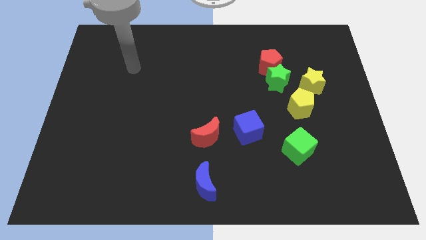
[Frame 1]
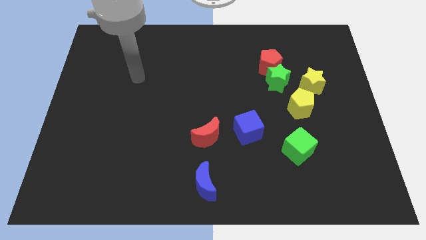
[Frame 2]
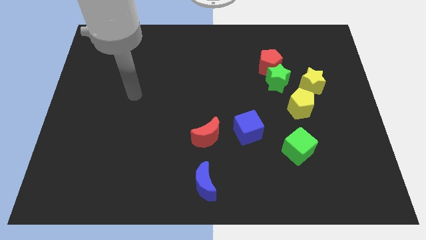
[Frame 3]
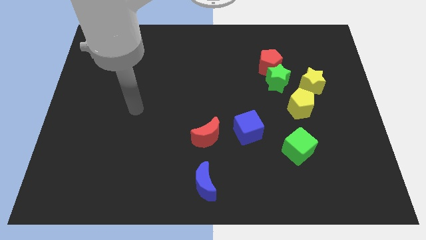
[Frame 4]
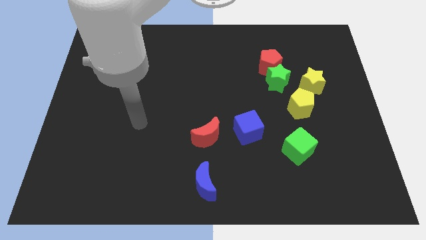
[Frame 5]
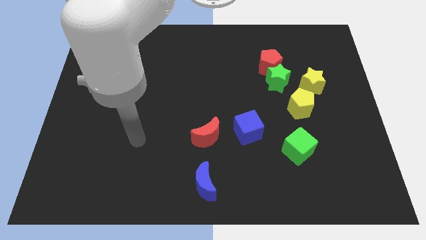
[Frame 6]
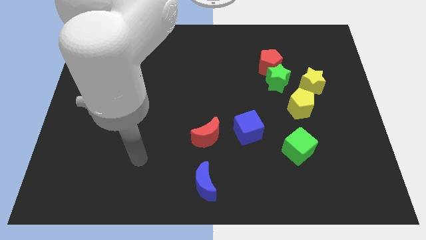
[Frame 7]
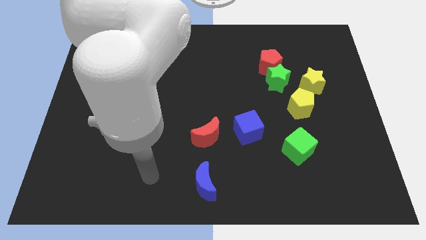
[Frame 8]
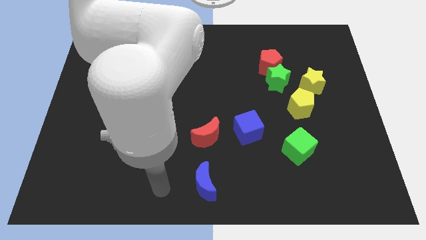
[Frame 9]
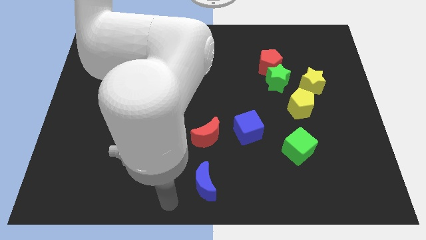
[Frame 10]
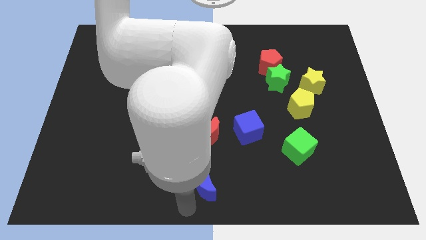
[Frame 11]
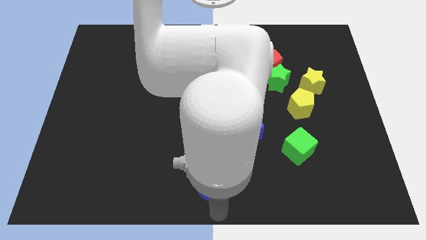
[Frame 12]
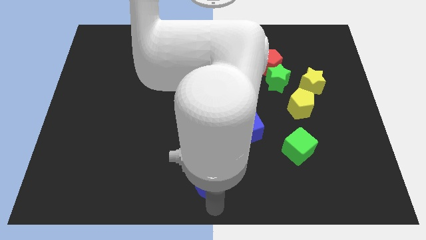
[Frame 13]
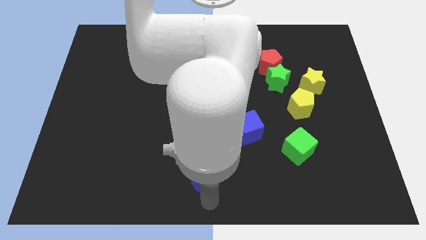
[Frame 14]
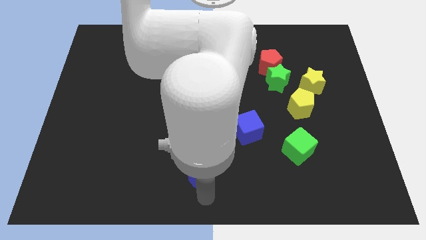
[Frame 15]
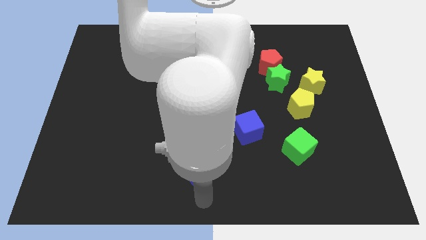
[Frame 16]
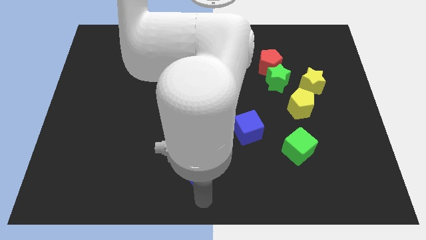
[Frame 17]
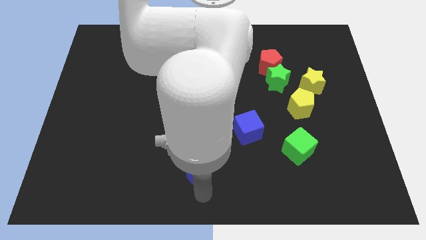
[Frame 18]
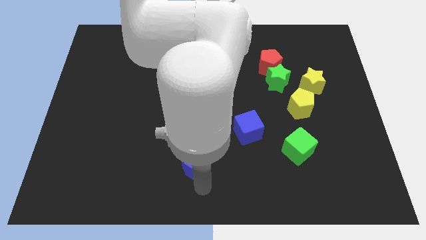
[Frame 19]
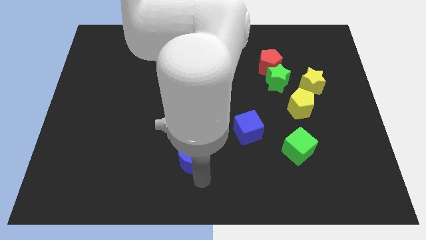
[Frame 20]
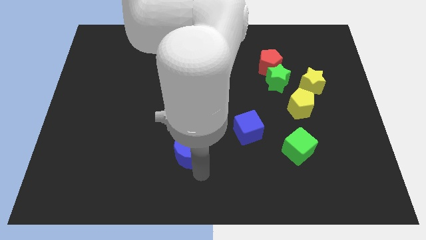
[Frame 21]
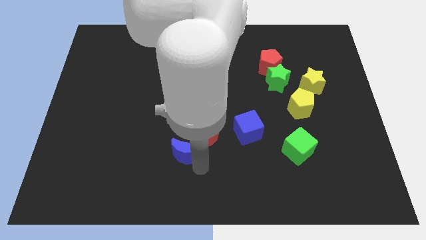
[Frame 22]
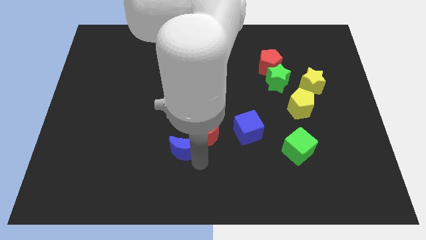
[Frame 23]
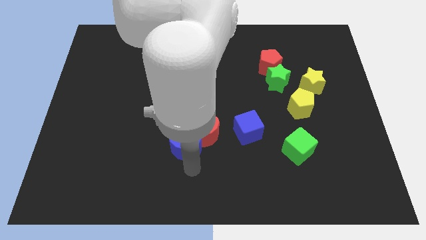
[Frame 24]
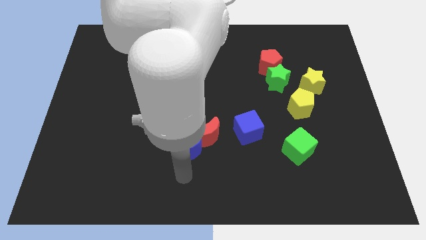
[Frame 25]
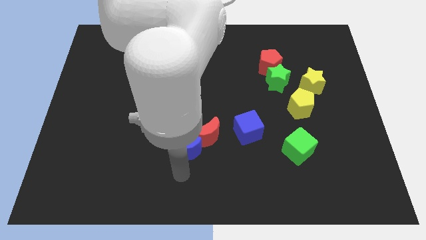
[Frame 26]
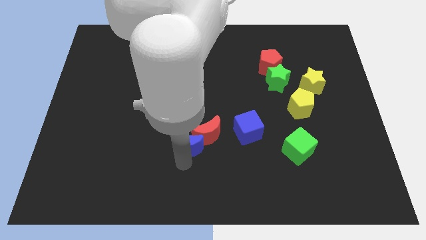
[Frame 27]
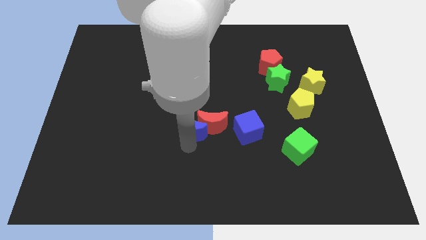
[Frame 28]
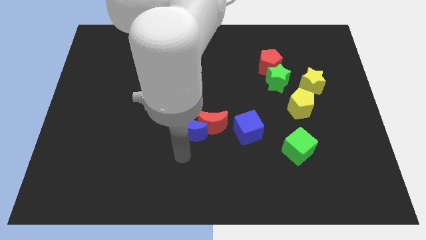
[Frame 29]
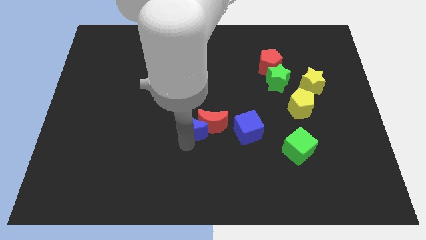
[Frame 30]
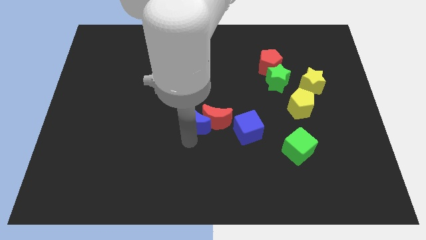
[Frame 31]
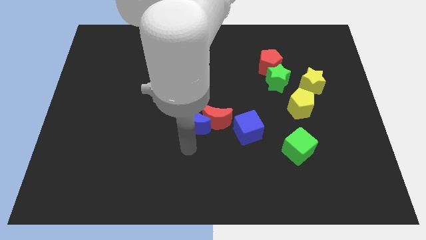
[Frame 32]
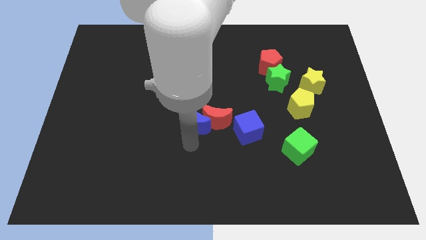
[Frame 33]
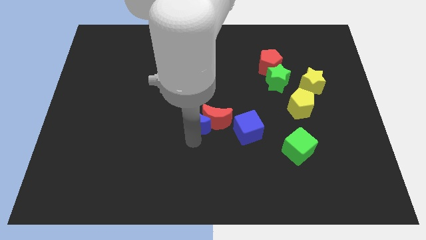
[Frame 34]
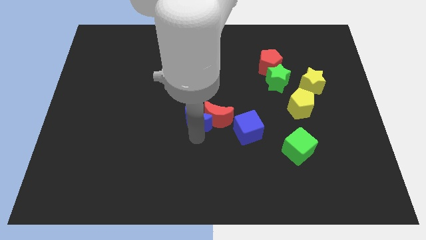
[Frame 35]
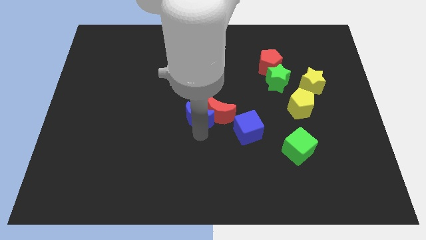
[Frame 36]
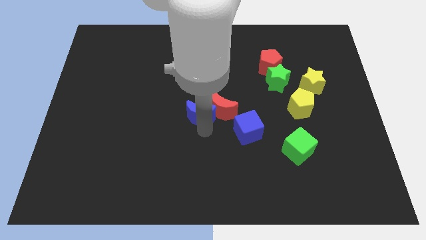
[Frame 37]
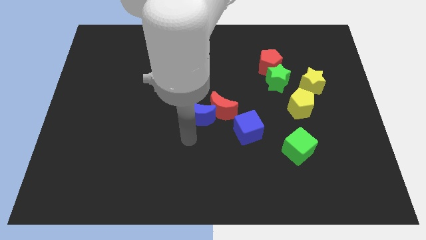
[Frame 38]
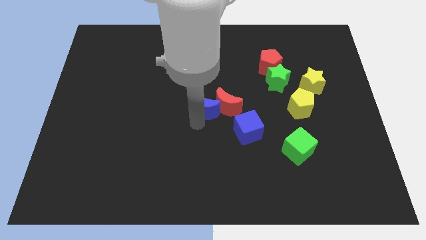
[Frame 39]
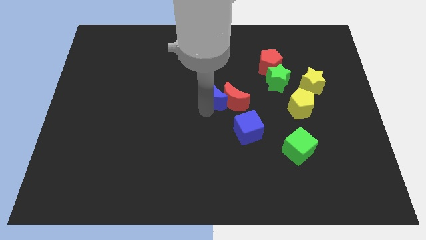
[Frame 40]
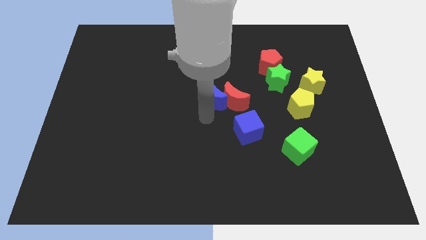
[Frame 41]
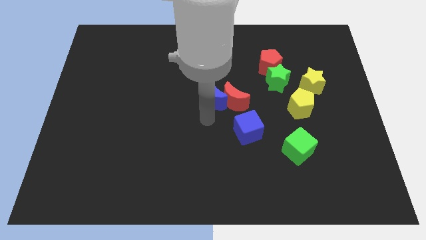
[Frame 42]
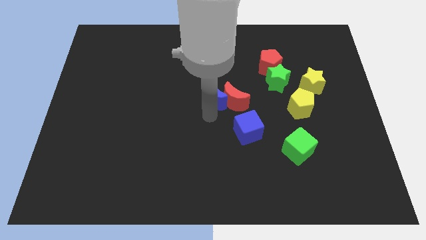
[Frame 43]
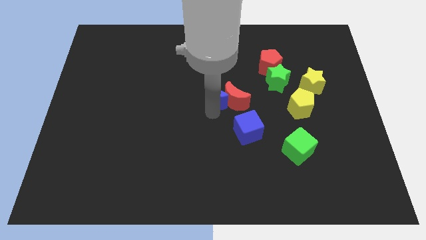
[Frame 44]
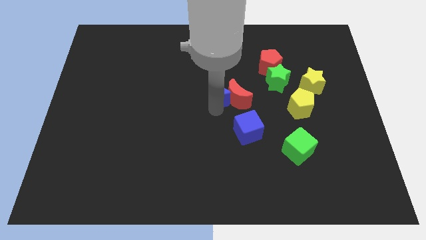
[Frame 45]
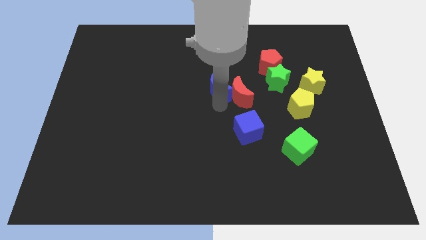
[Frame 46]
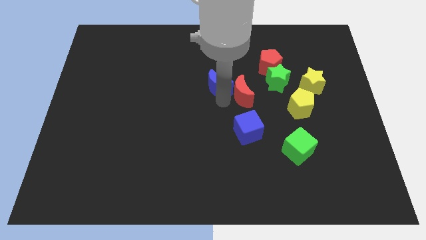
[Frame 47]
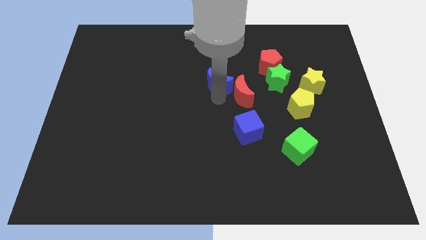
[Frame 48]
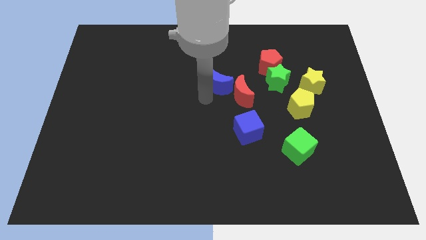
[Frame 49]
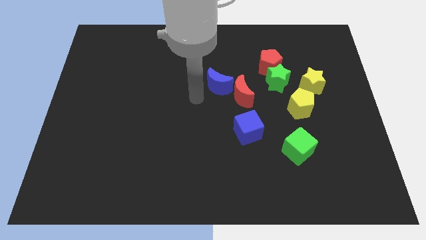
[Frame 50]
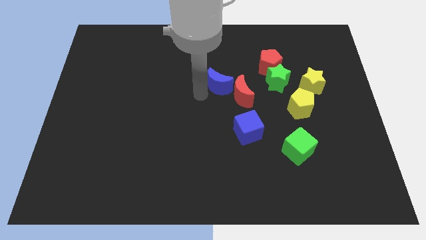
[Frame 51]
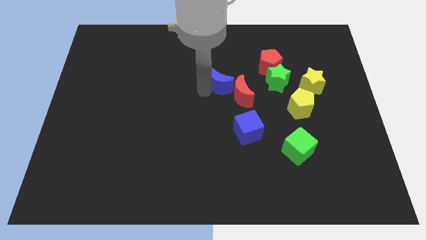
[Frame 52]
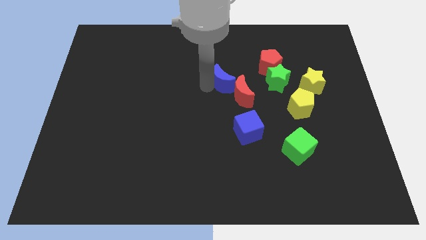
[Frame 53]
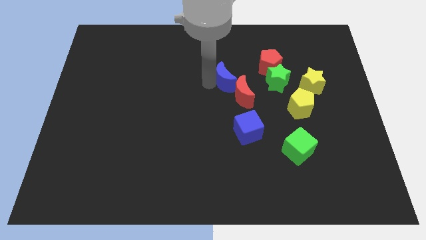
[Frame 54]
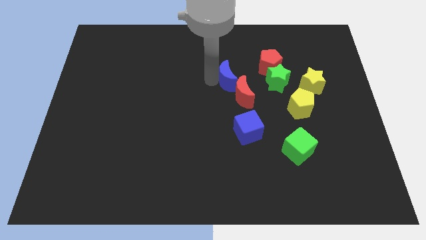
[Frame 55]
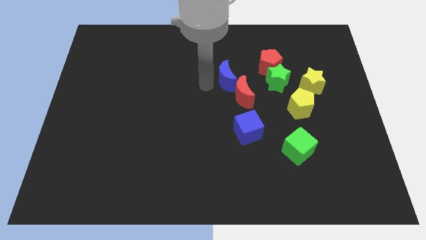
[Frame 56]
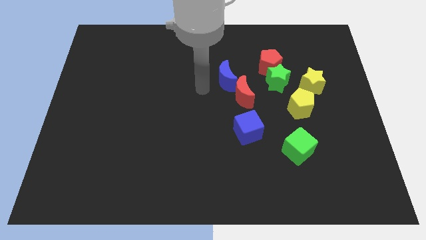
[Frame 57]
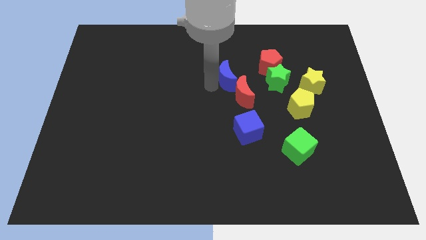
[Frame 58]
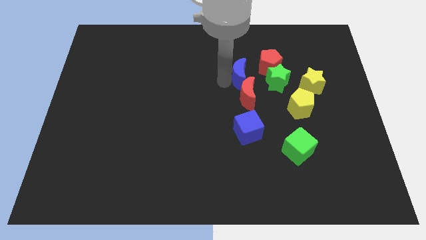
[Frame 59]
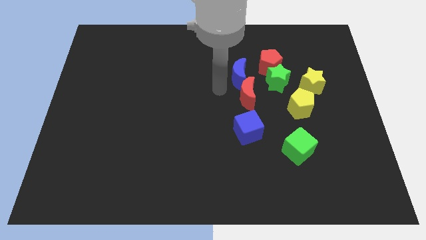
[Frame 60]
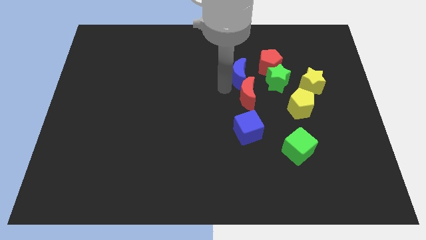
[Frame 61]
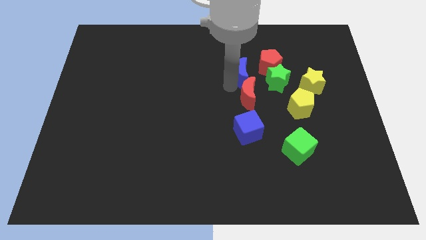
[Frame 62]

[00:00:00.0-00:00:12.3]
put the blue moon diagonally up and to the left of the green star

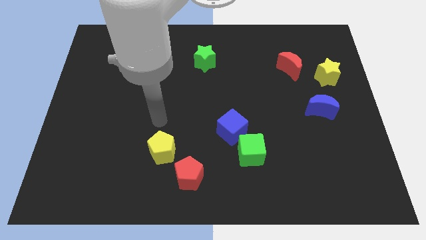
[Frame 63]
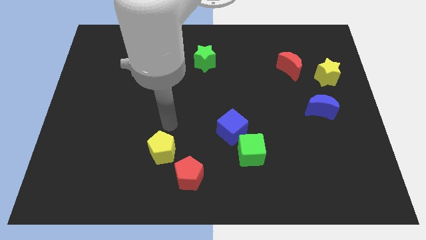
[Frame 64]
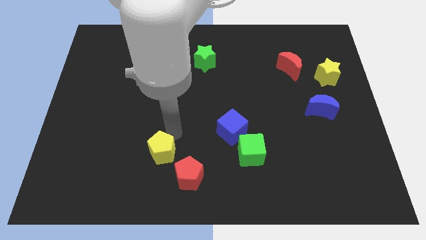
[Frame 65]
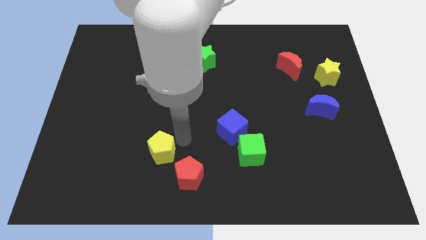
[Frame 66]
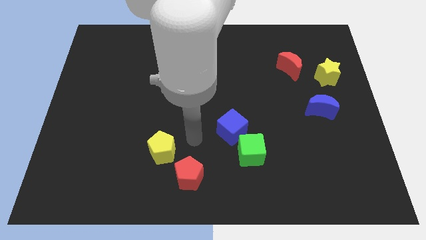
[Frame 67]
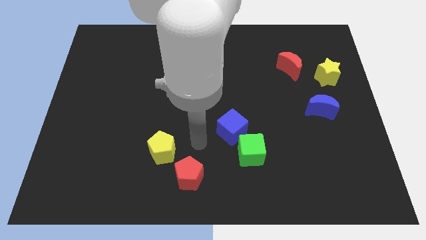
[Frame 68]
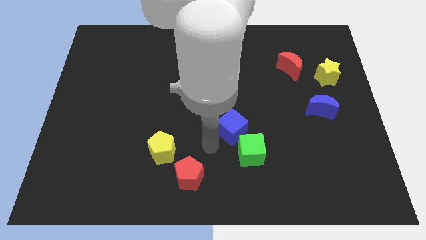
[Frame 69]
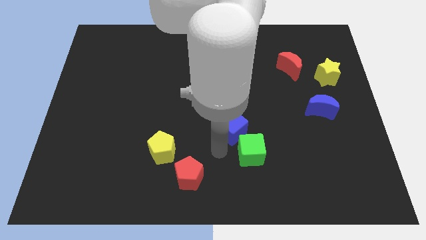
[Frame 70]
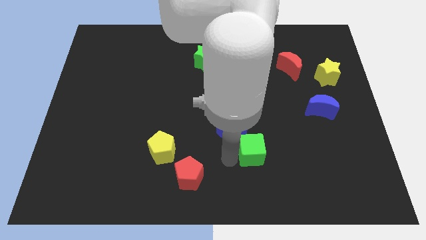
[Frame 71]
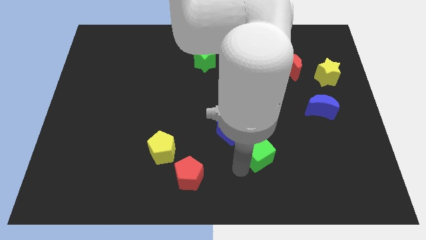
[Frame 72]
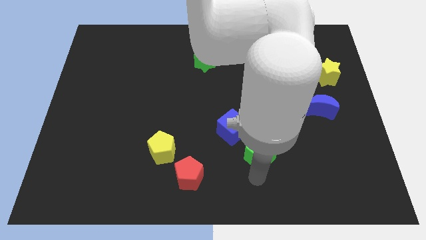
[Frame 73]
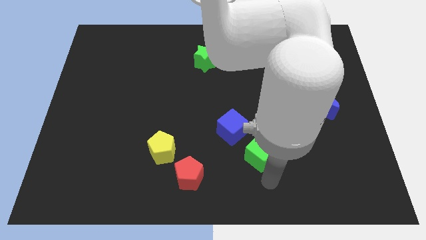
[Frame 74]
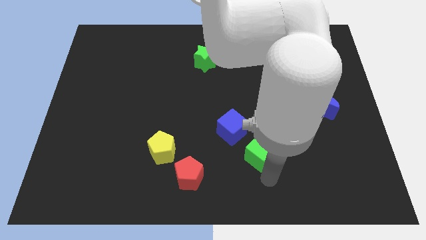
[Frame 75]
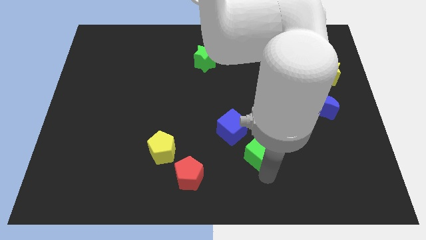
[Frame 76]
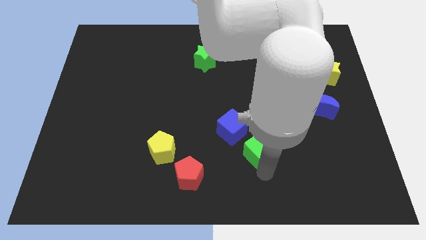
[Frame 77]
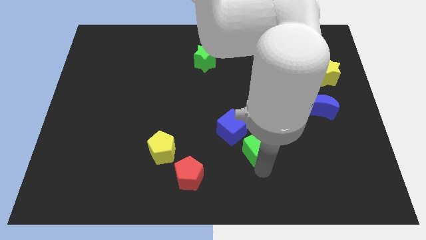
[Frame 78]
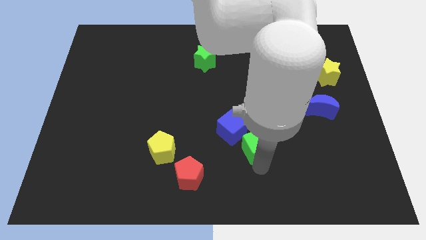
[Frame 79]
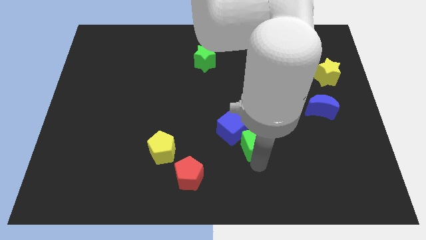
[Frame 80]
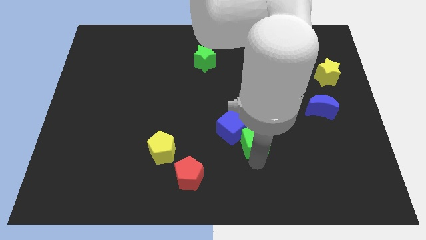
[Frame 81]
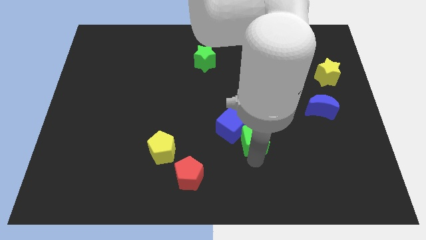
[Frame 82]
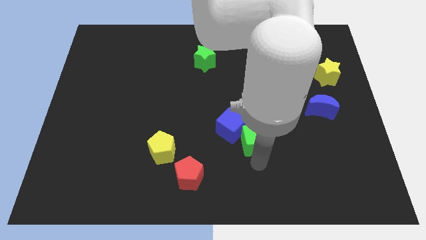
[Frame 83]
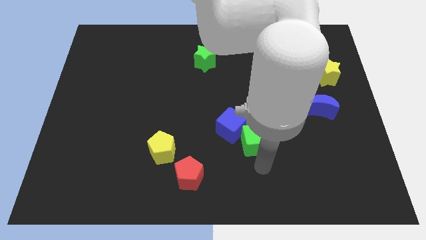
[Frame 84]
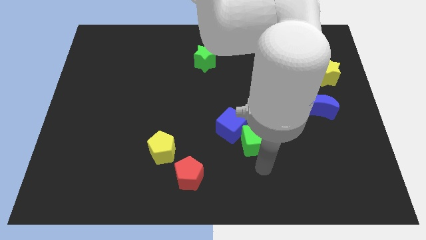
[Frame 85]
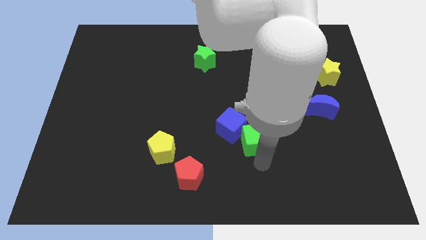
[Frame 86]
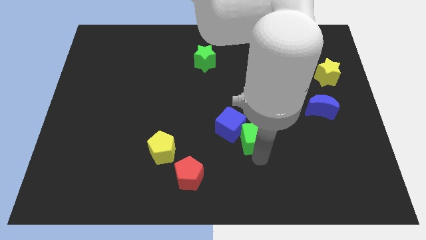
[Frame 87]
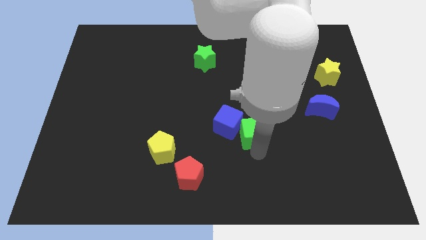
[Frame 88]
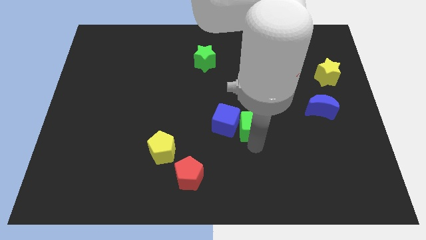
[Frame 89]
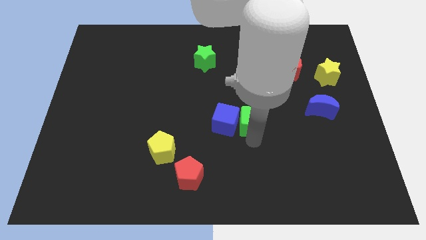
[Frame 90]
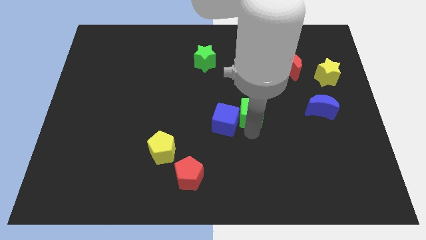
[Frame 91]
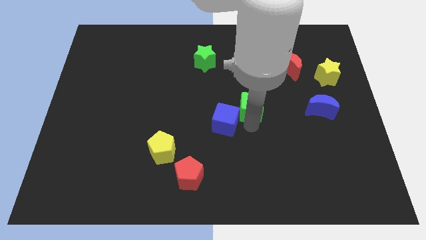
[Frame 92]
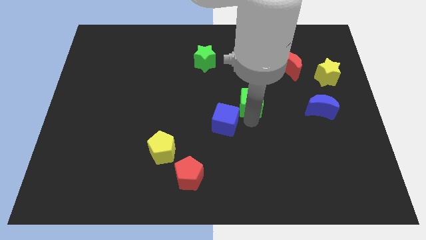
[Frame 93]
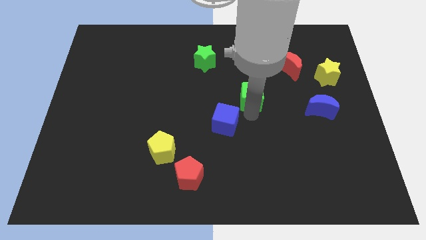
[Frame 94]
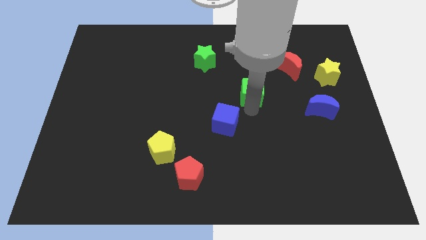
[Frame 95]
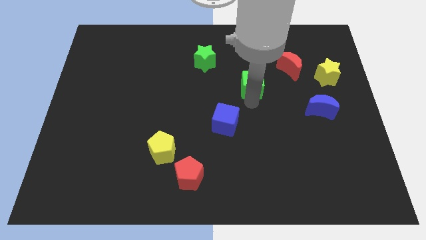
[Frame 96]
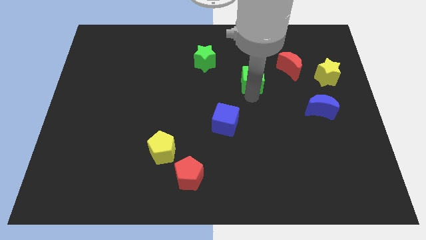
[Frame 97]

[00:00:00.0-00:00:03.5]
put the green cube left of the red moon
